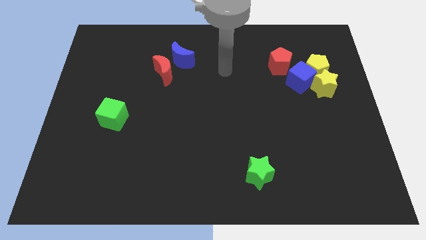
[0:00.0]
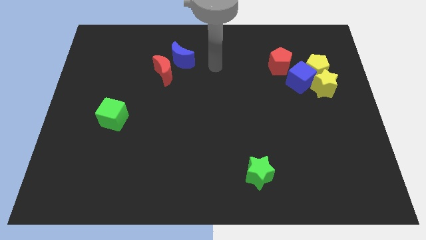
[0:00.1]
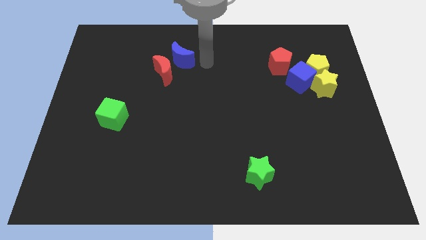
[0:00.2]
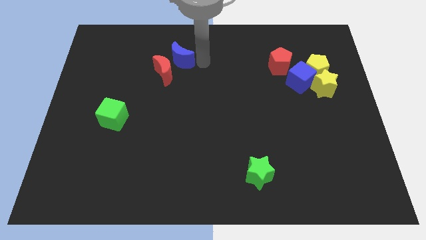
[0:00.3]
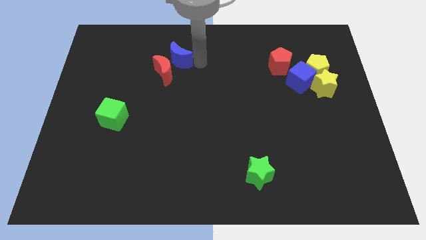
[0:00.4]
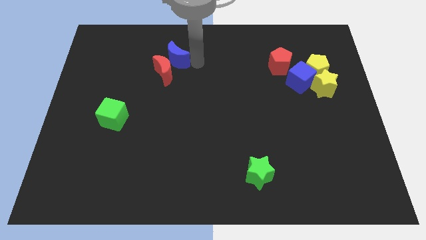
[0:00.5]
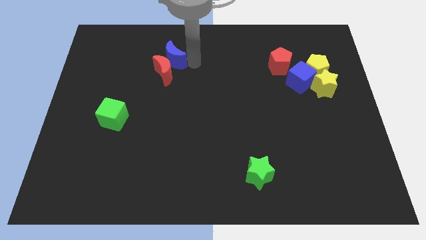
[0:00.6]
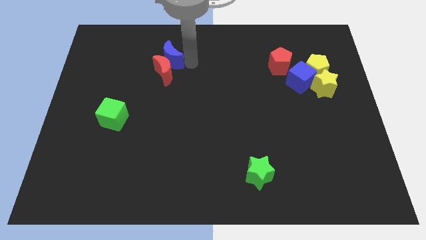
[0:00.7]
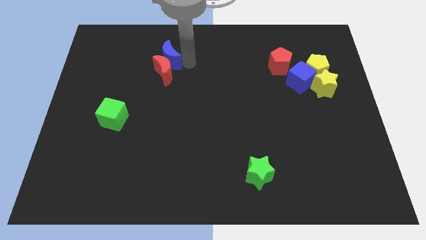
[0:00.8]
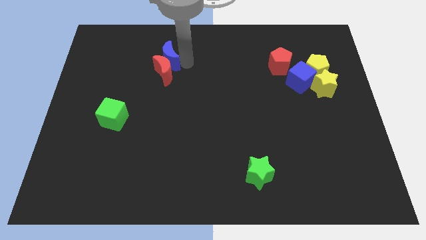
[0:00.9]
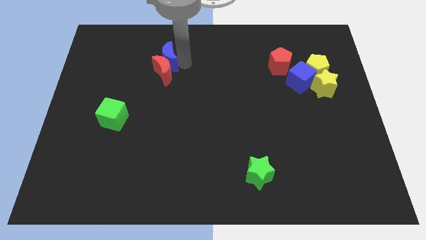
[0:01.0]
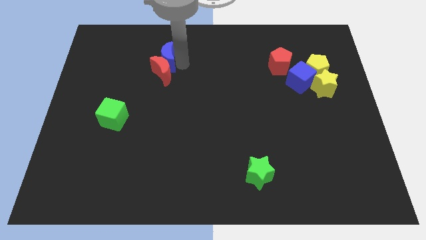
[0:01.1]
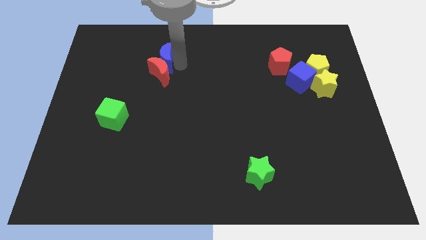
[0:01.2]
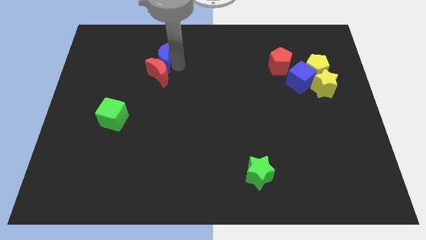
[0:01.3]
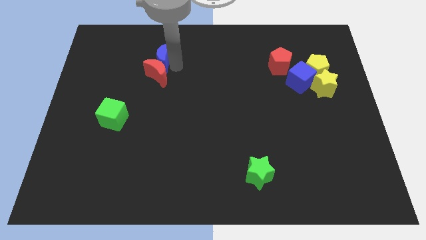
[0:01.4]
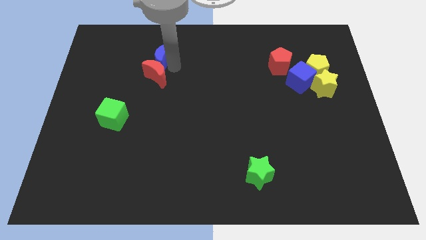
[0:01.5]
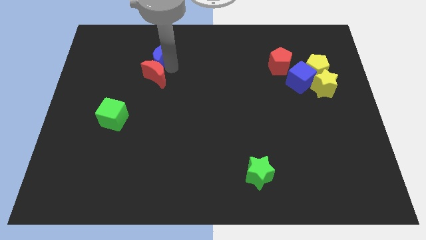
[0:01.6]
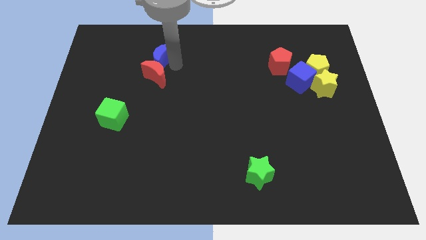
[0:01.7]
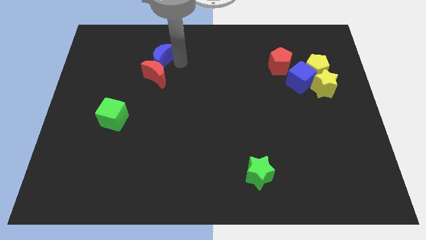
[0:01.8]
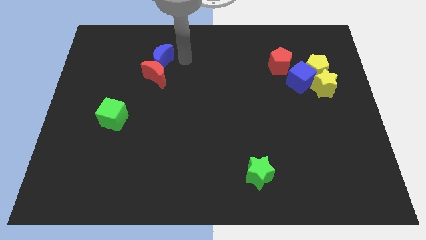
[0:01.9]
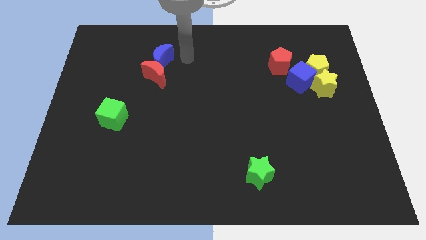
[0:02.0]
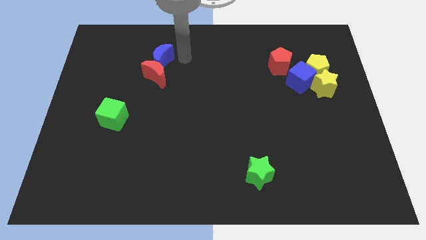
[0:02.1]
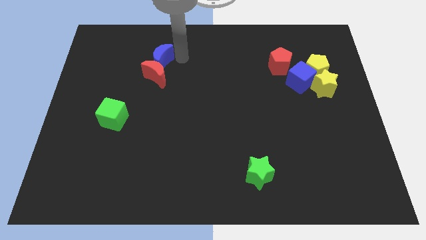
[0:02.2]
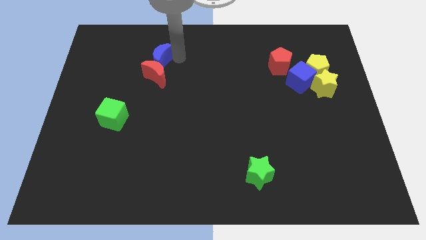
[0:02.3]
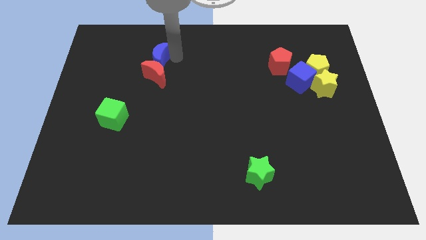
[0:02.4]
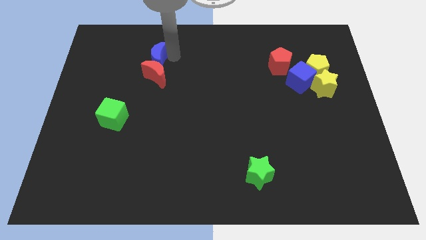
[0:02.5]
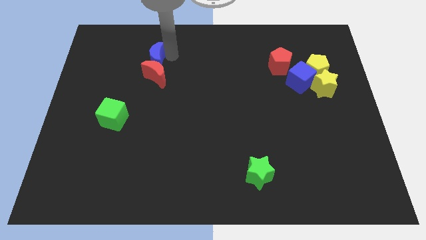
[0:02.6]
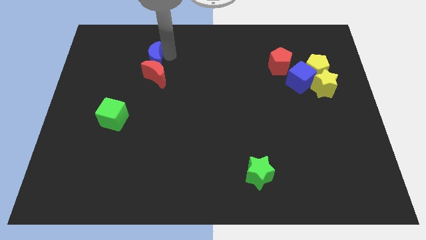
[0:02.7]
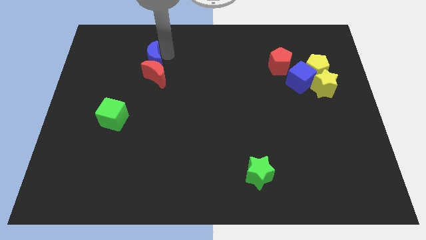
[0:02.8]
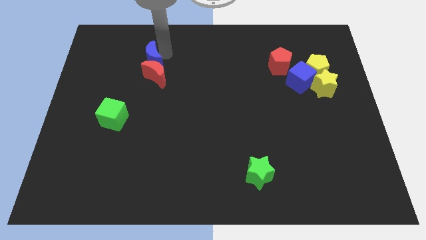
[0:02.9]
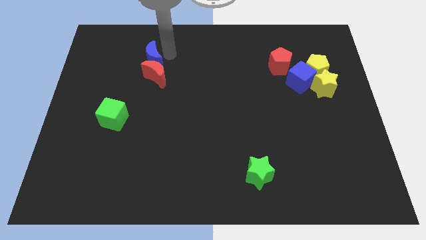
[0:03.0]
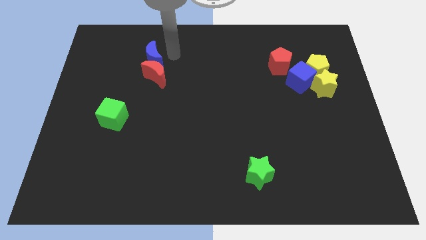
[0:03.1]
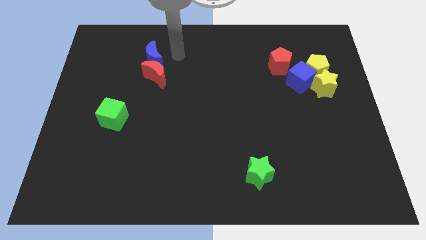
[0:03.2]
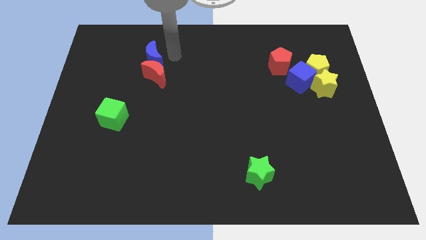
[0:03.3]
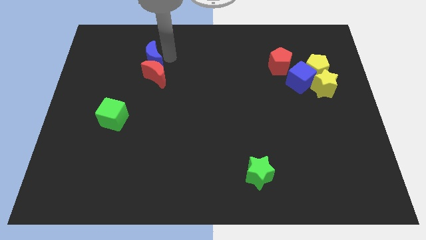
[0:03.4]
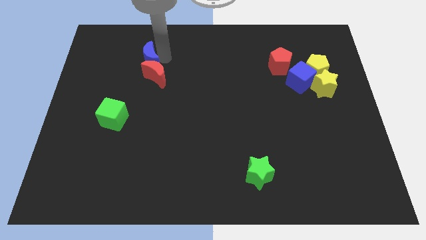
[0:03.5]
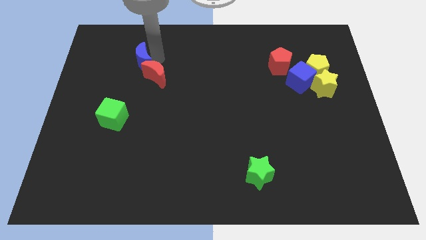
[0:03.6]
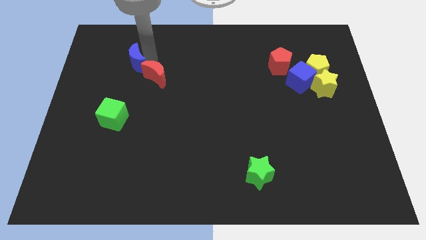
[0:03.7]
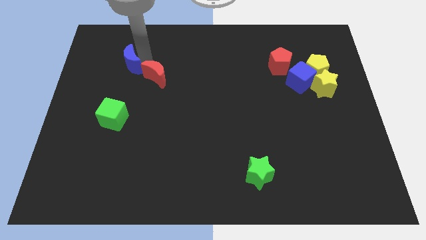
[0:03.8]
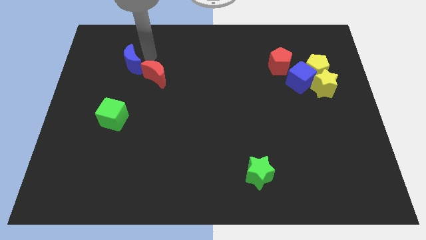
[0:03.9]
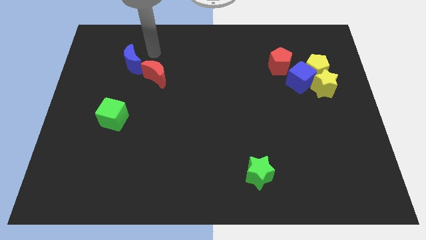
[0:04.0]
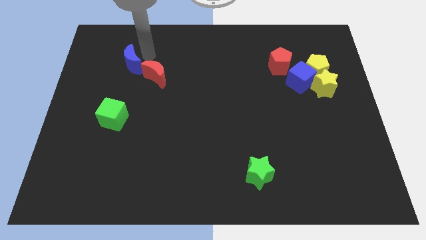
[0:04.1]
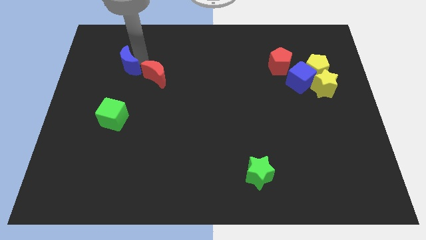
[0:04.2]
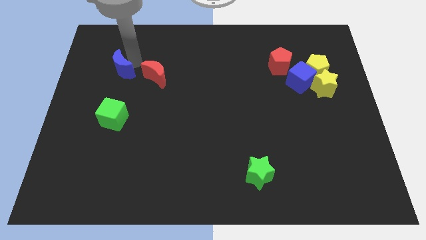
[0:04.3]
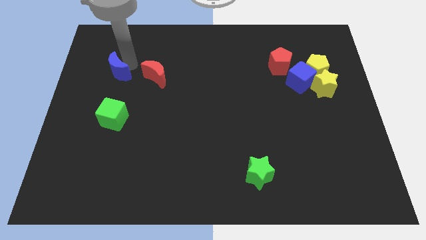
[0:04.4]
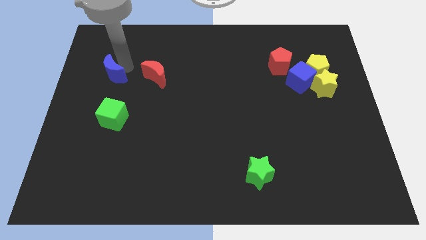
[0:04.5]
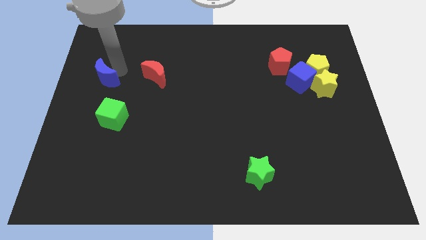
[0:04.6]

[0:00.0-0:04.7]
move the blue moon to the center left

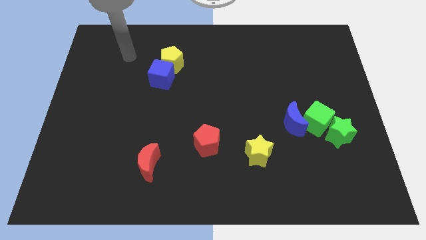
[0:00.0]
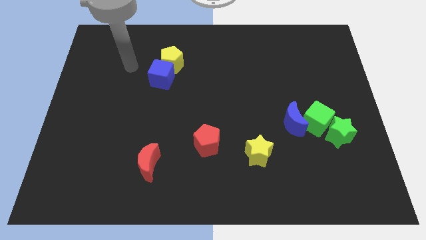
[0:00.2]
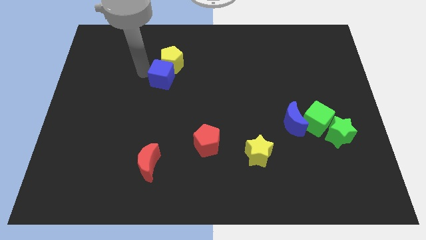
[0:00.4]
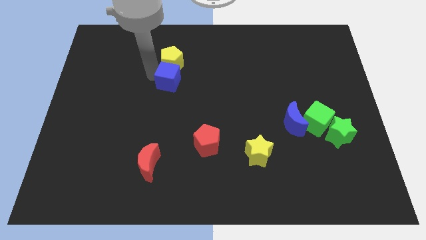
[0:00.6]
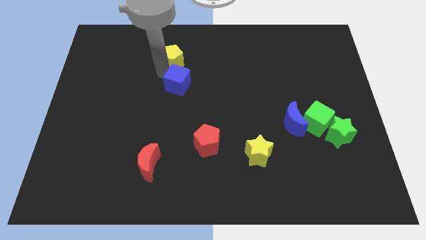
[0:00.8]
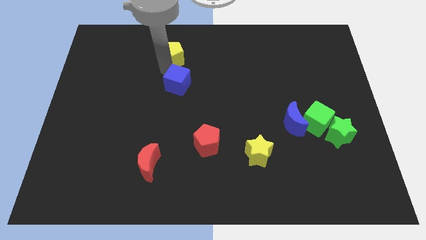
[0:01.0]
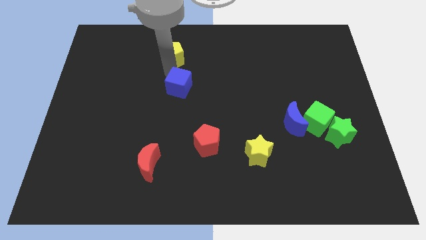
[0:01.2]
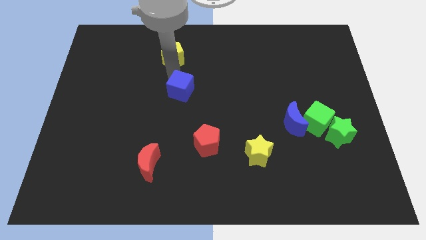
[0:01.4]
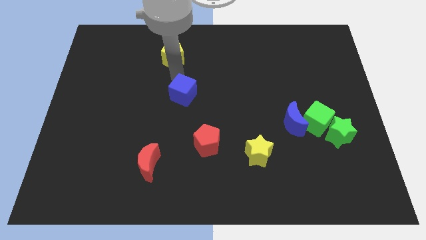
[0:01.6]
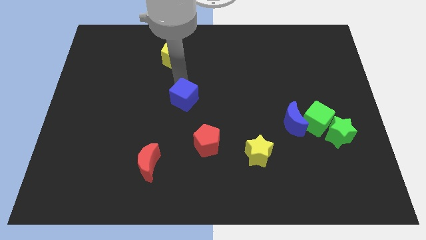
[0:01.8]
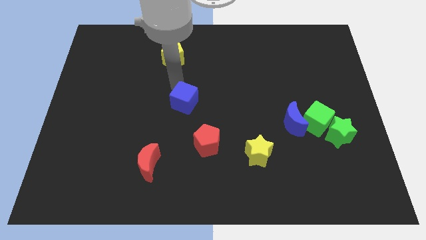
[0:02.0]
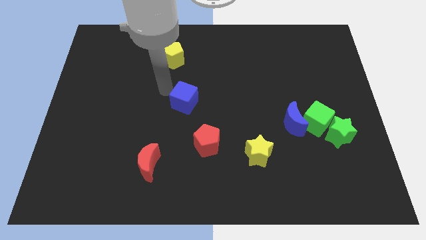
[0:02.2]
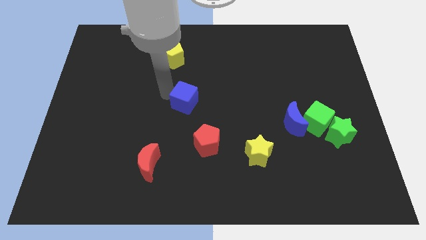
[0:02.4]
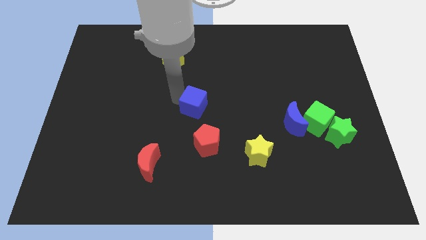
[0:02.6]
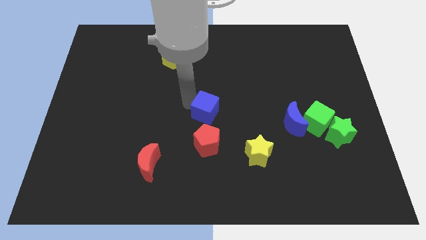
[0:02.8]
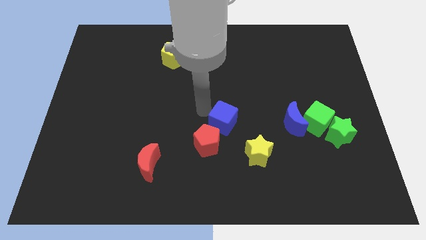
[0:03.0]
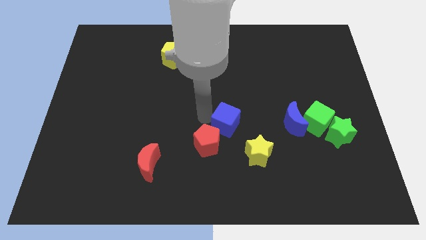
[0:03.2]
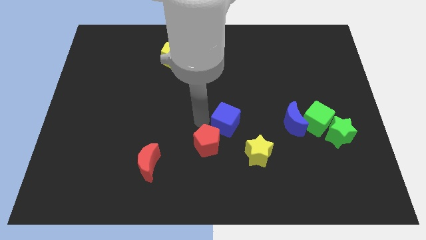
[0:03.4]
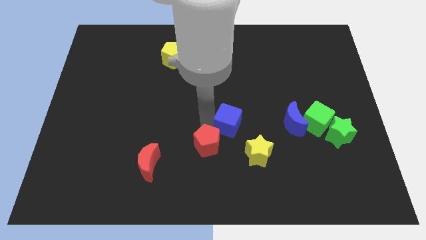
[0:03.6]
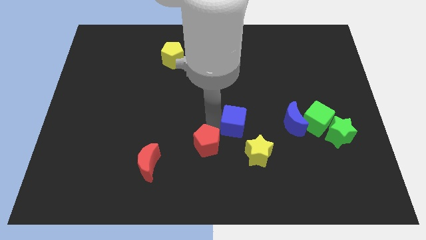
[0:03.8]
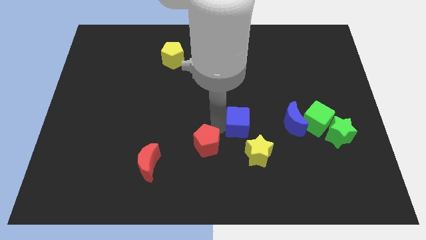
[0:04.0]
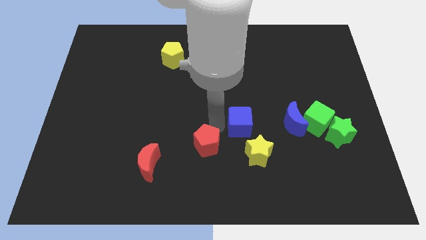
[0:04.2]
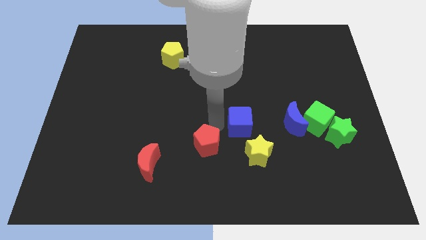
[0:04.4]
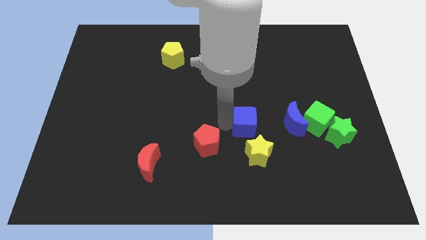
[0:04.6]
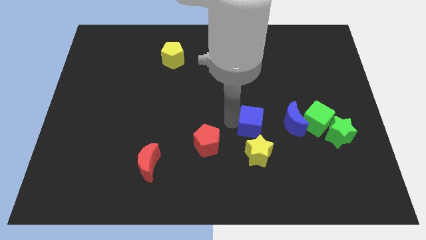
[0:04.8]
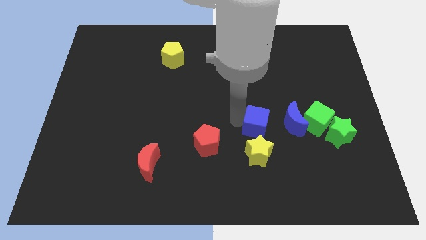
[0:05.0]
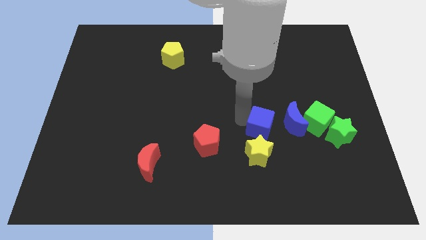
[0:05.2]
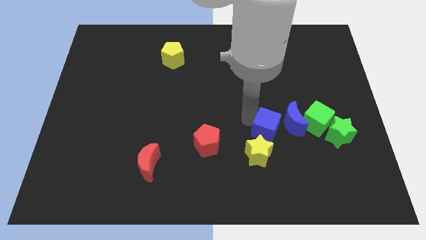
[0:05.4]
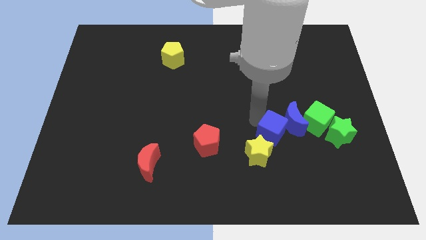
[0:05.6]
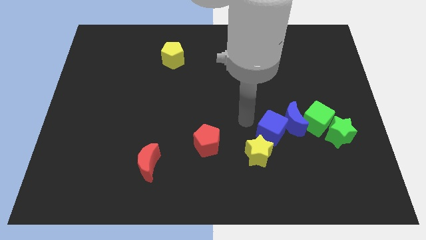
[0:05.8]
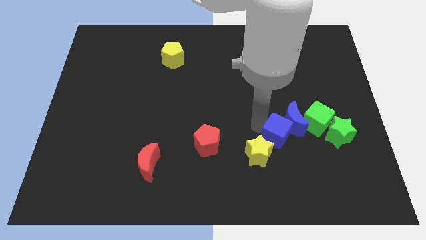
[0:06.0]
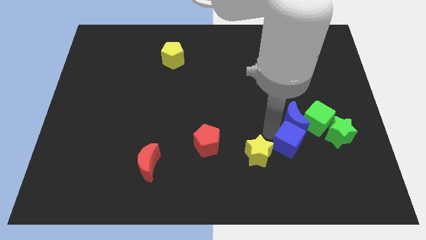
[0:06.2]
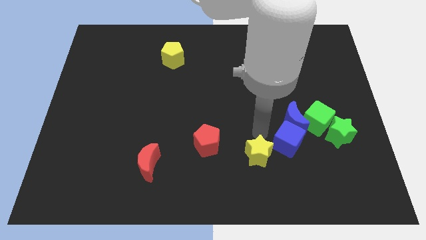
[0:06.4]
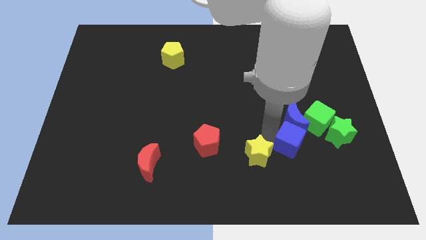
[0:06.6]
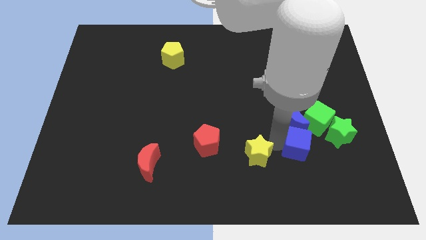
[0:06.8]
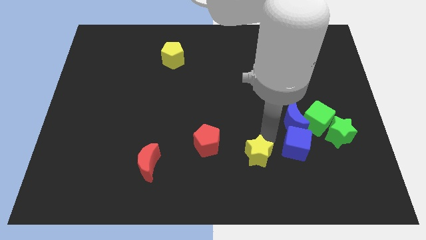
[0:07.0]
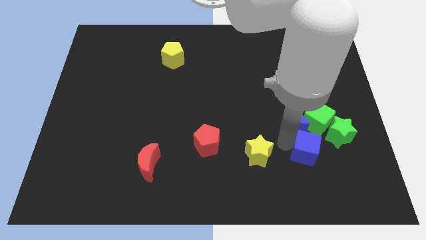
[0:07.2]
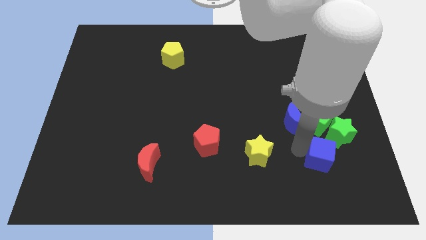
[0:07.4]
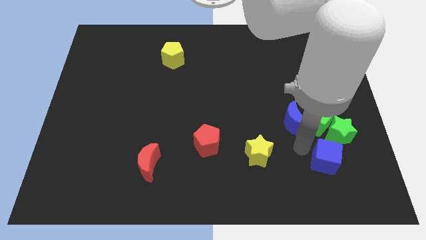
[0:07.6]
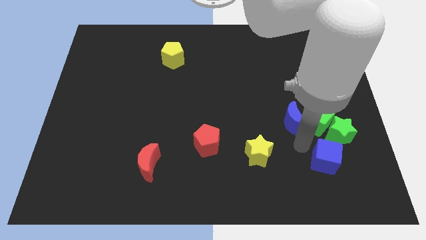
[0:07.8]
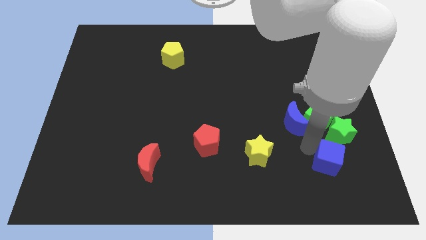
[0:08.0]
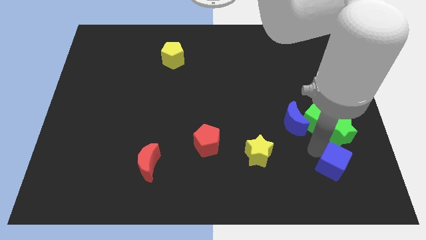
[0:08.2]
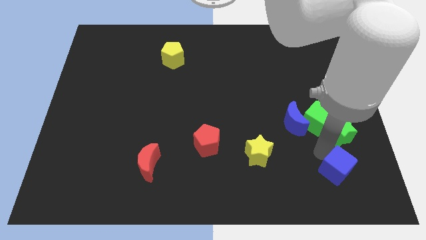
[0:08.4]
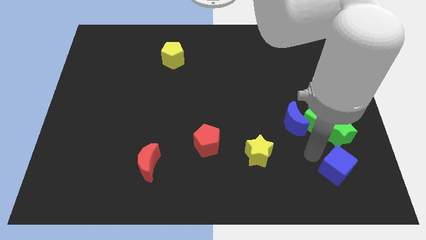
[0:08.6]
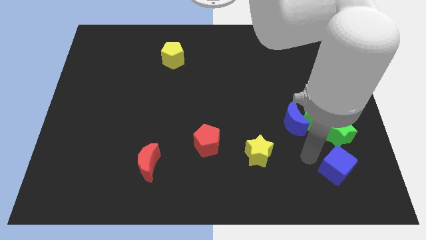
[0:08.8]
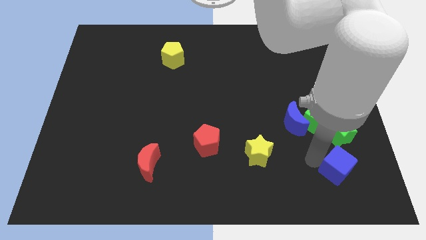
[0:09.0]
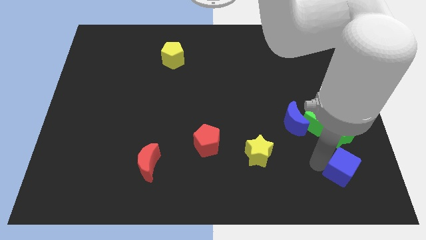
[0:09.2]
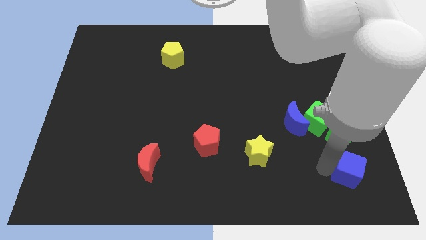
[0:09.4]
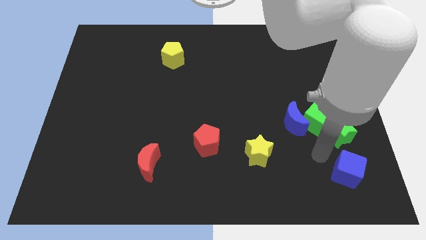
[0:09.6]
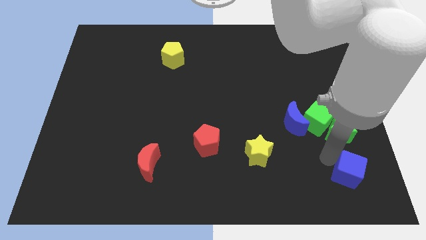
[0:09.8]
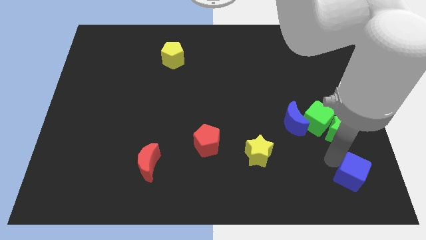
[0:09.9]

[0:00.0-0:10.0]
slide the blue cube to the bottom right
